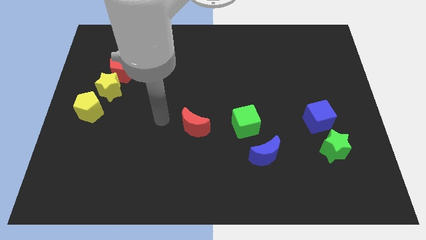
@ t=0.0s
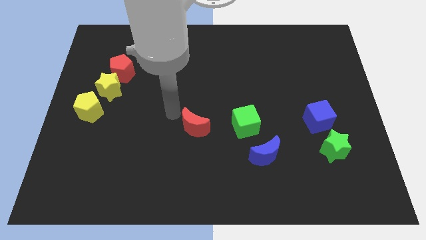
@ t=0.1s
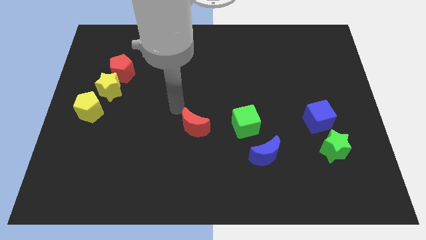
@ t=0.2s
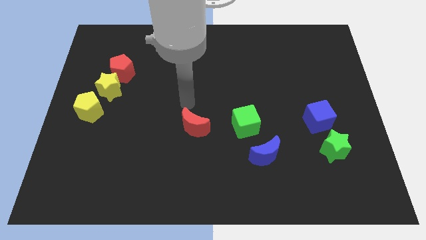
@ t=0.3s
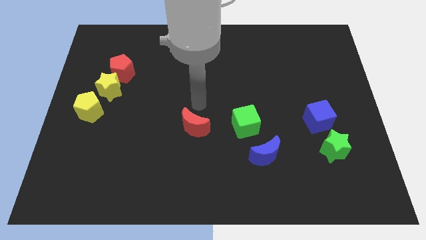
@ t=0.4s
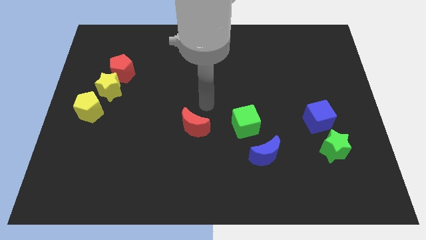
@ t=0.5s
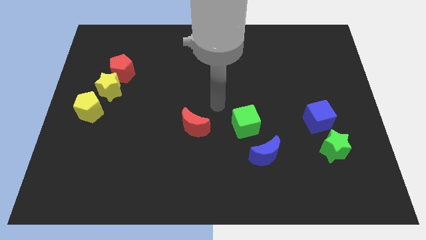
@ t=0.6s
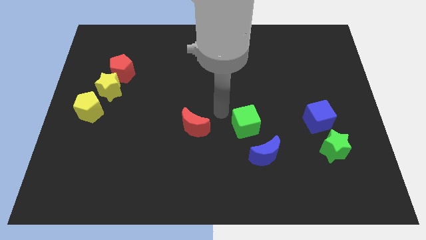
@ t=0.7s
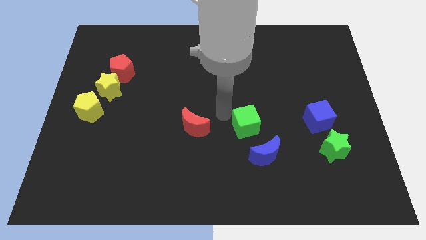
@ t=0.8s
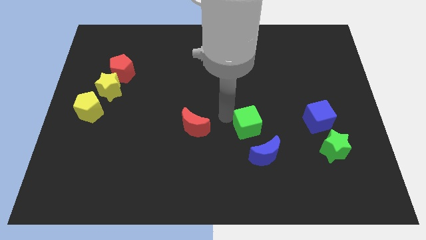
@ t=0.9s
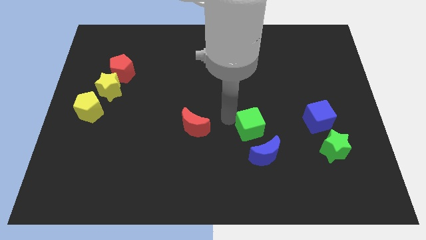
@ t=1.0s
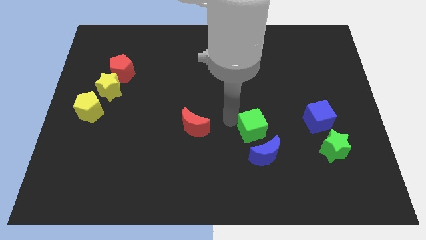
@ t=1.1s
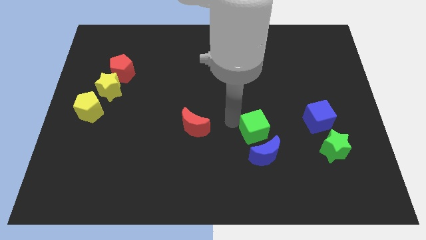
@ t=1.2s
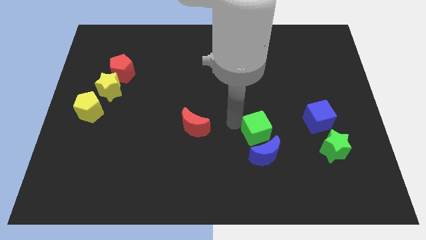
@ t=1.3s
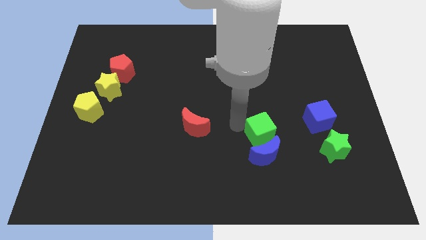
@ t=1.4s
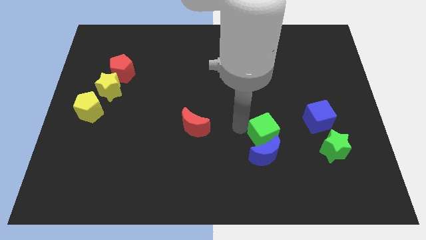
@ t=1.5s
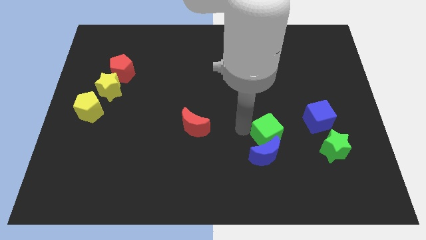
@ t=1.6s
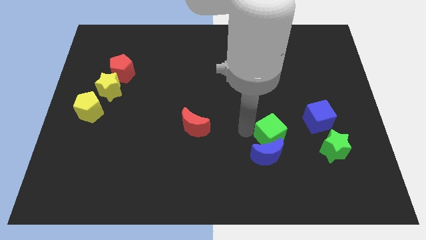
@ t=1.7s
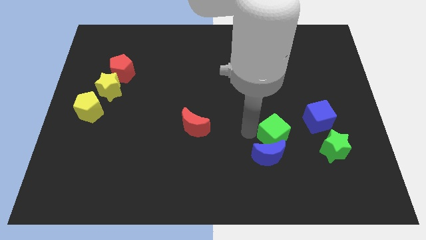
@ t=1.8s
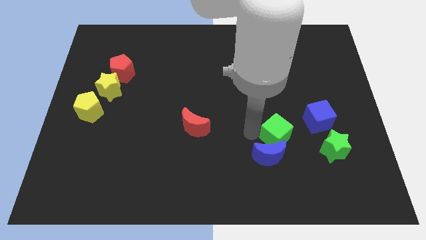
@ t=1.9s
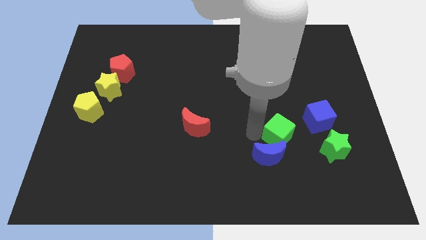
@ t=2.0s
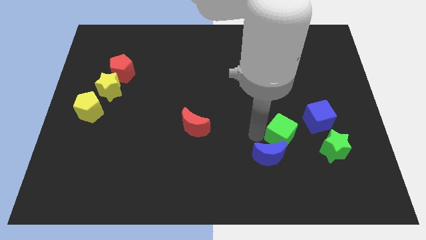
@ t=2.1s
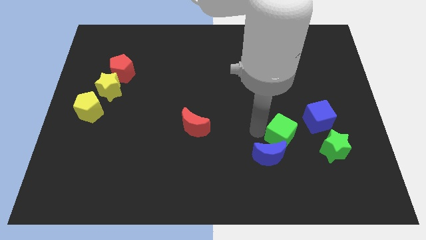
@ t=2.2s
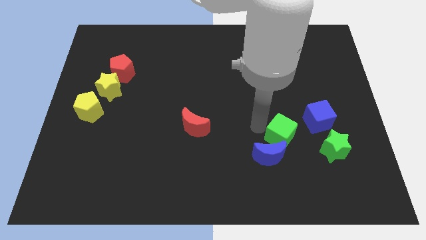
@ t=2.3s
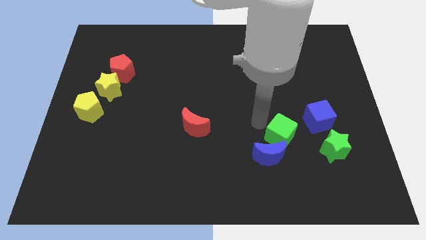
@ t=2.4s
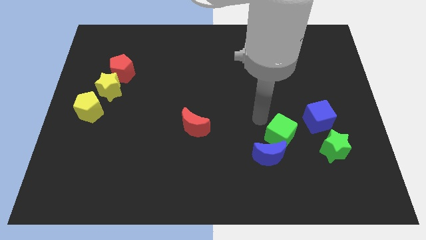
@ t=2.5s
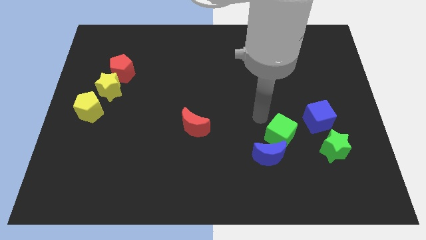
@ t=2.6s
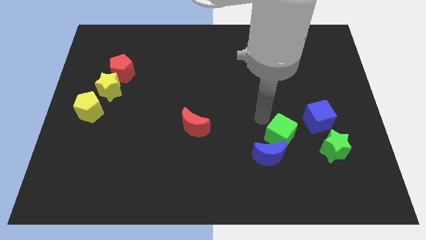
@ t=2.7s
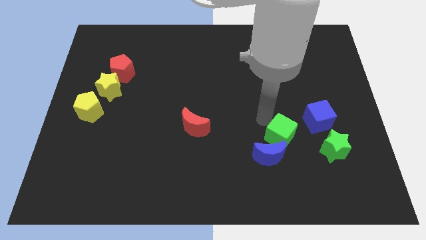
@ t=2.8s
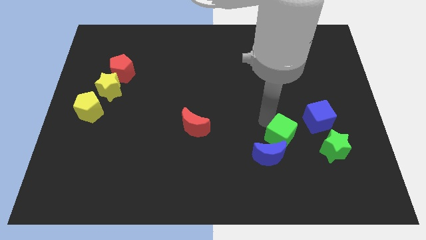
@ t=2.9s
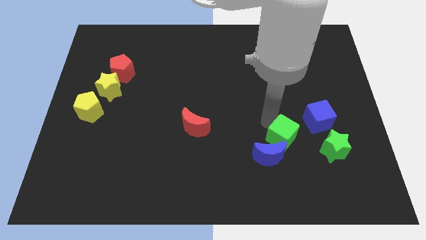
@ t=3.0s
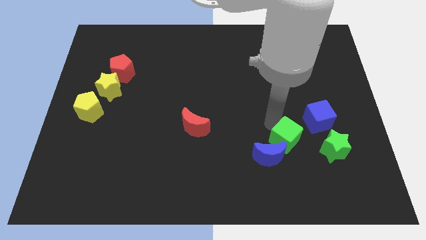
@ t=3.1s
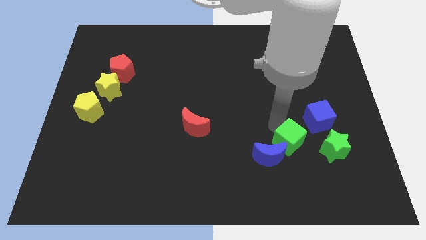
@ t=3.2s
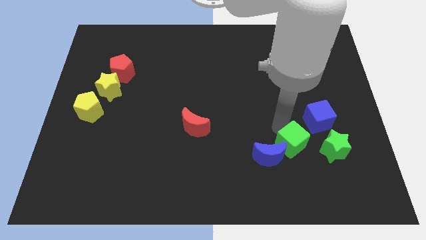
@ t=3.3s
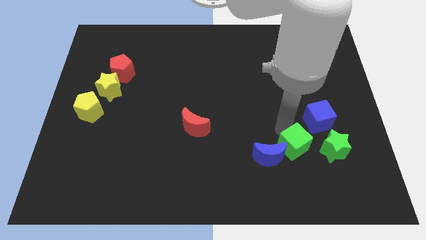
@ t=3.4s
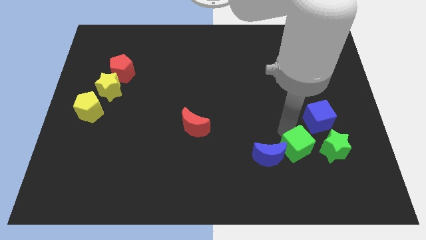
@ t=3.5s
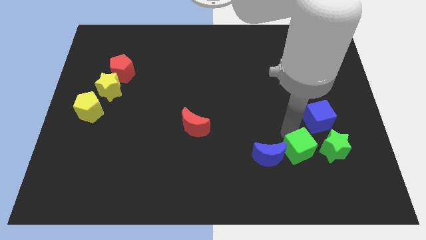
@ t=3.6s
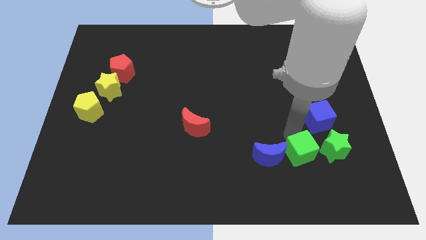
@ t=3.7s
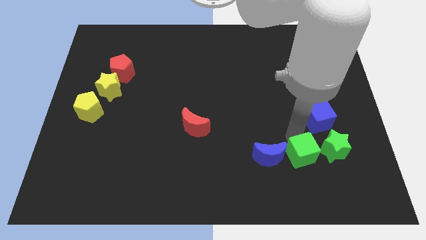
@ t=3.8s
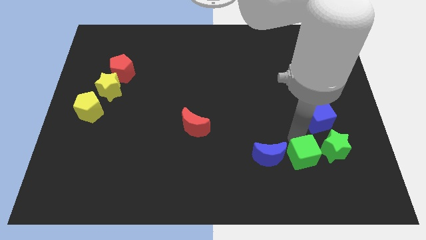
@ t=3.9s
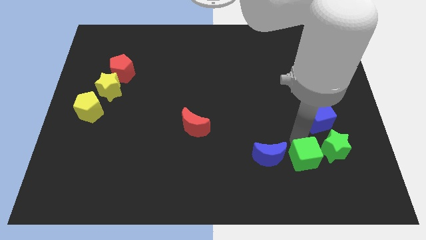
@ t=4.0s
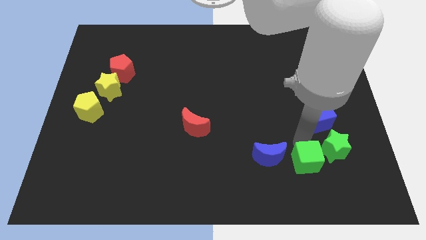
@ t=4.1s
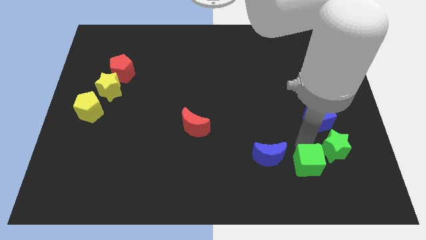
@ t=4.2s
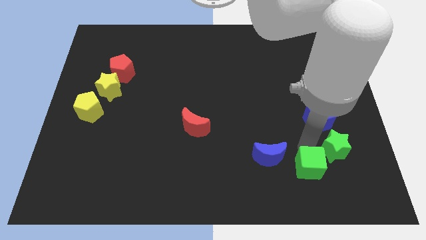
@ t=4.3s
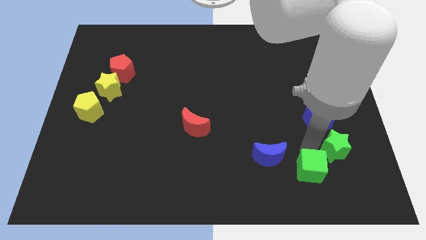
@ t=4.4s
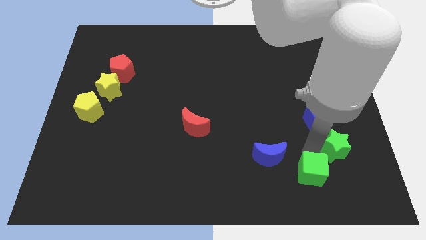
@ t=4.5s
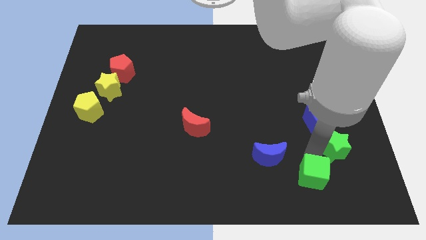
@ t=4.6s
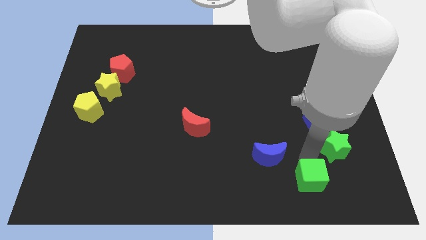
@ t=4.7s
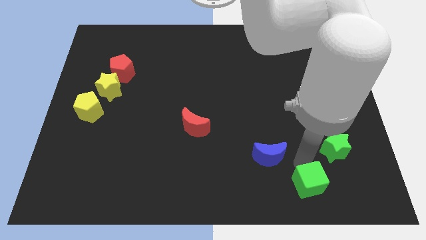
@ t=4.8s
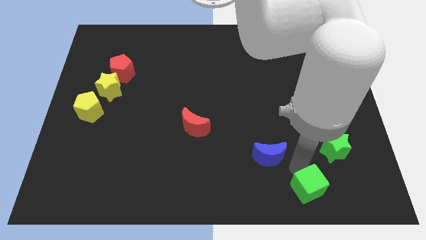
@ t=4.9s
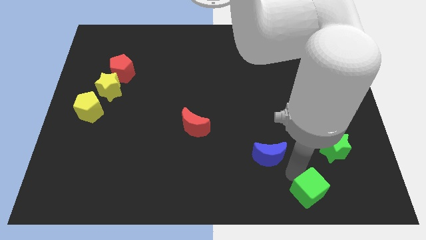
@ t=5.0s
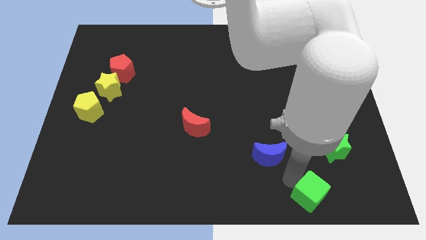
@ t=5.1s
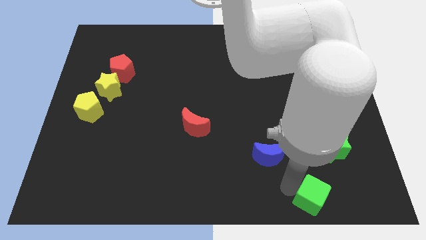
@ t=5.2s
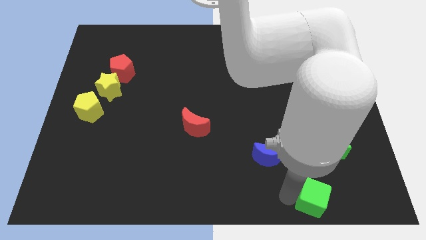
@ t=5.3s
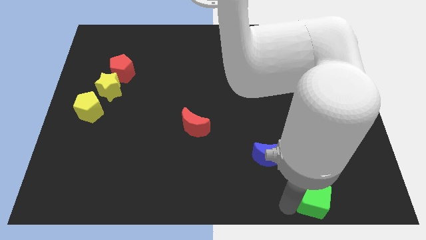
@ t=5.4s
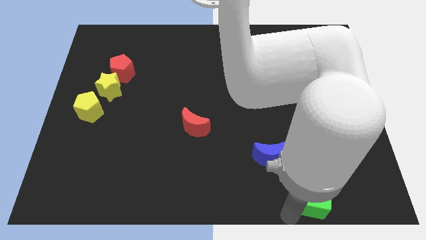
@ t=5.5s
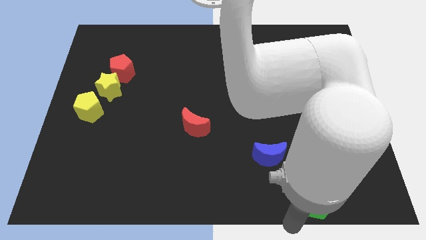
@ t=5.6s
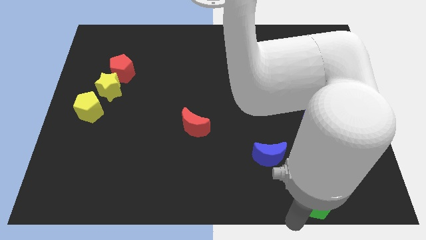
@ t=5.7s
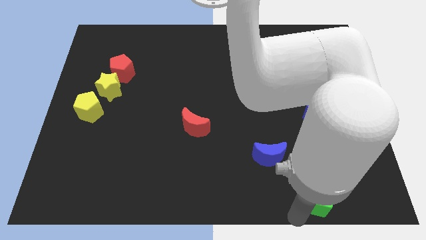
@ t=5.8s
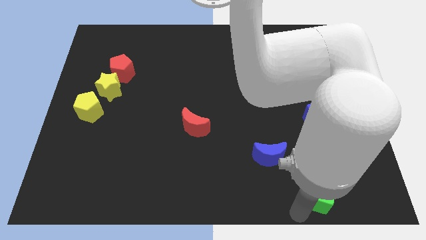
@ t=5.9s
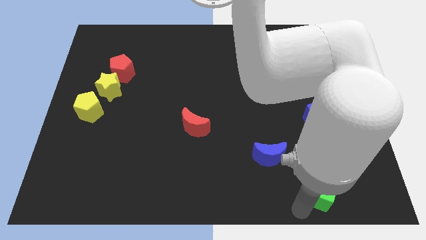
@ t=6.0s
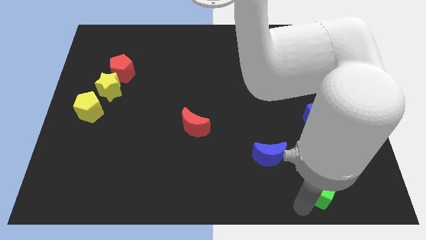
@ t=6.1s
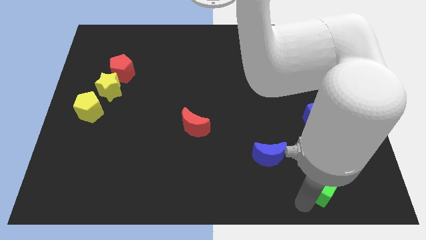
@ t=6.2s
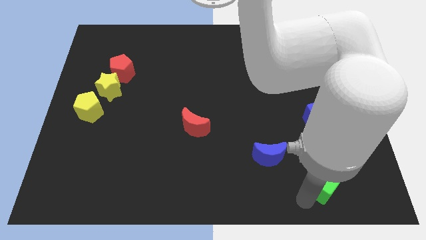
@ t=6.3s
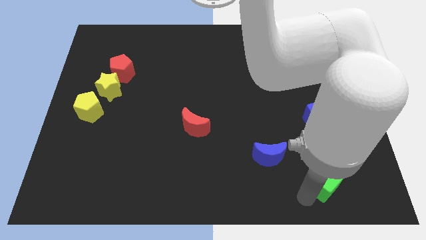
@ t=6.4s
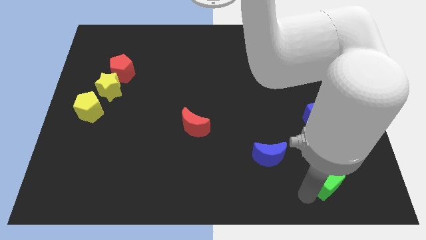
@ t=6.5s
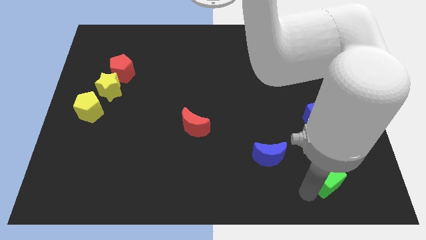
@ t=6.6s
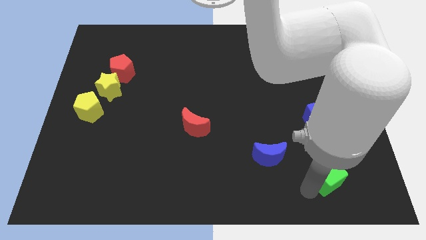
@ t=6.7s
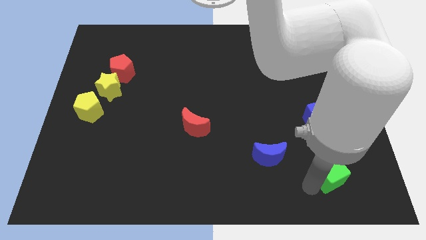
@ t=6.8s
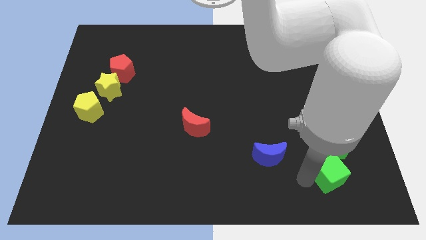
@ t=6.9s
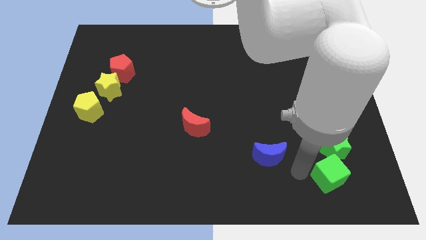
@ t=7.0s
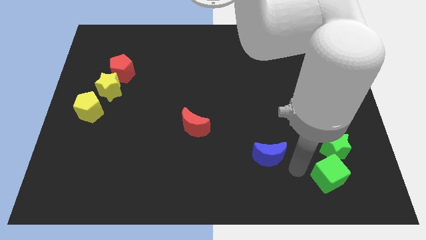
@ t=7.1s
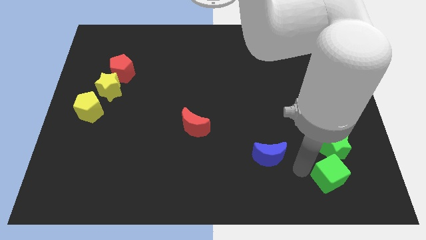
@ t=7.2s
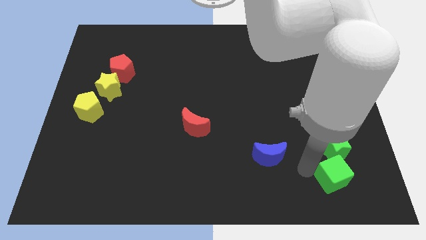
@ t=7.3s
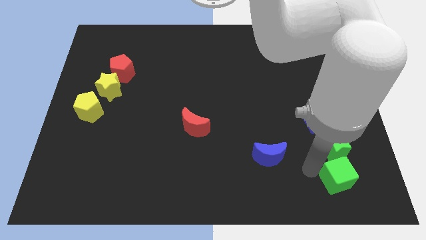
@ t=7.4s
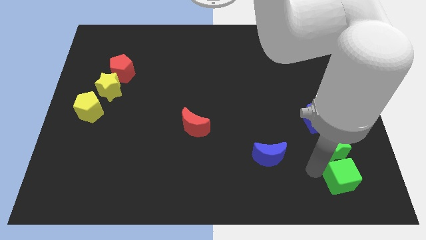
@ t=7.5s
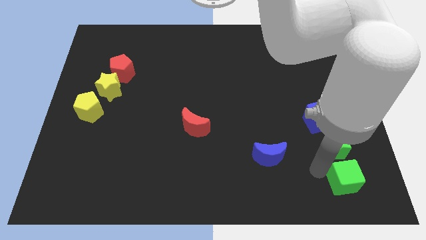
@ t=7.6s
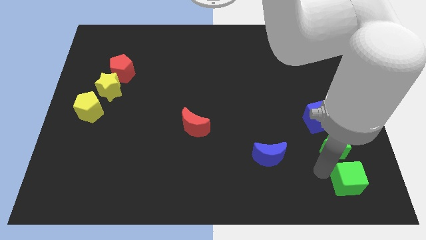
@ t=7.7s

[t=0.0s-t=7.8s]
move the green cube to the bottom right of the board
